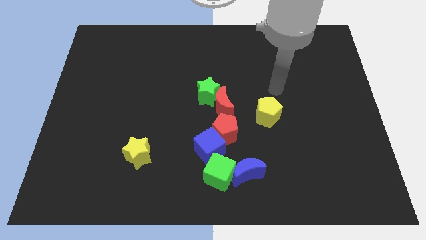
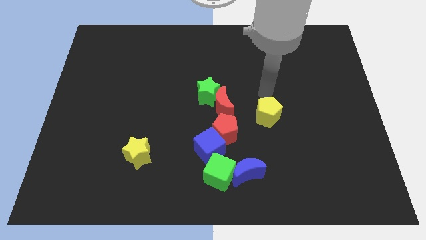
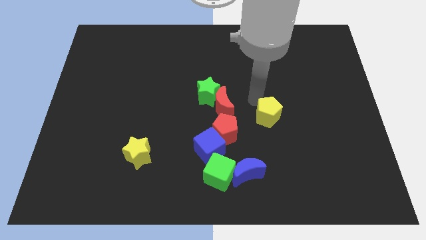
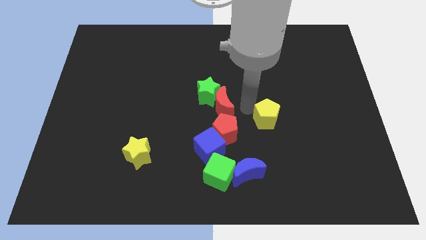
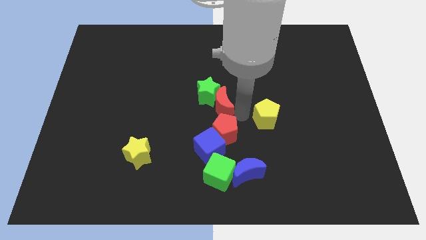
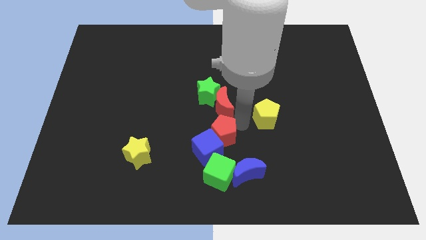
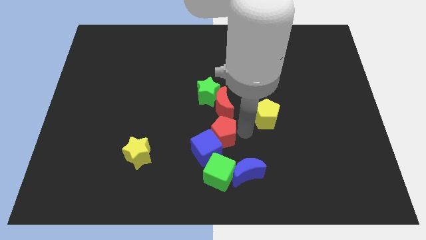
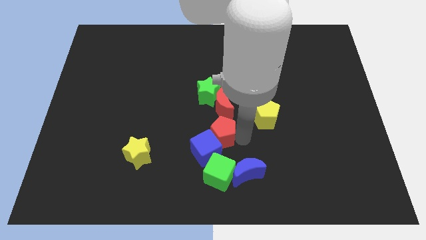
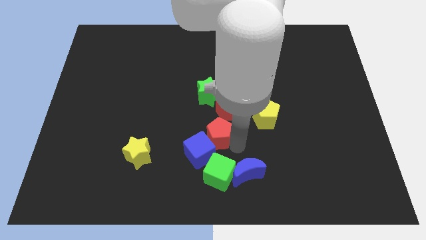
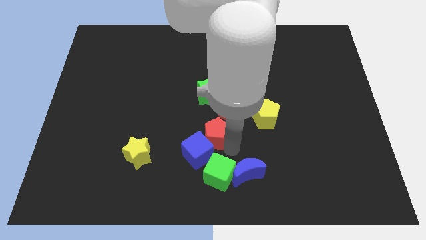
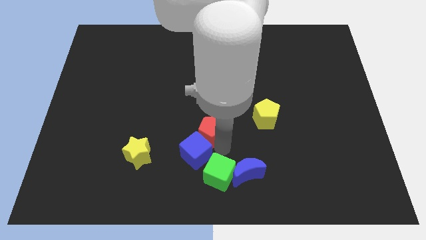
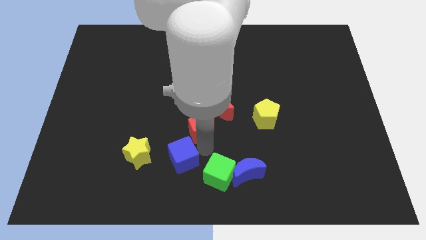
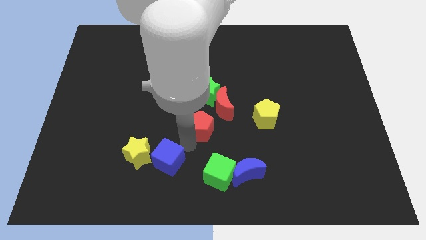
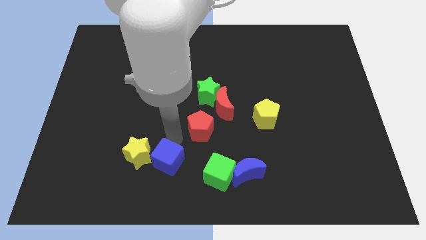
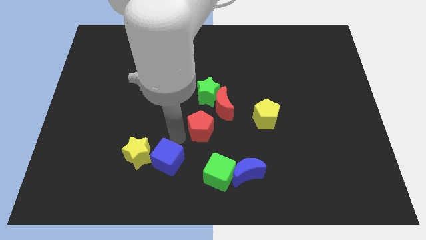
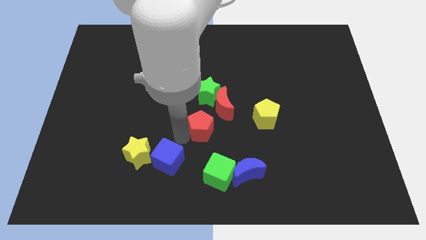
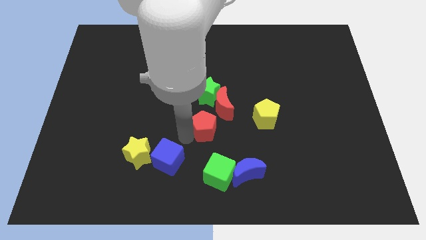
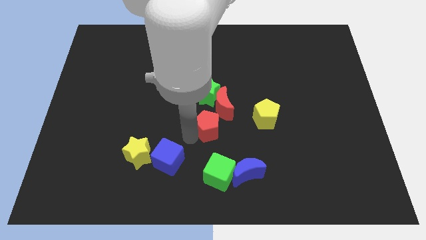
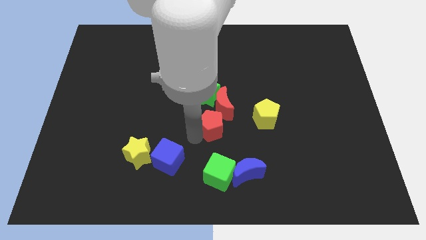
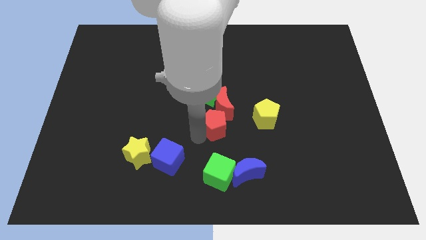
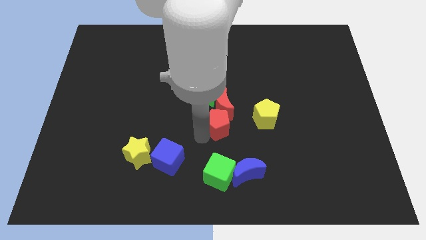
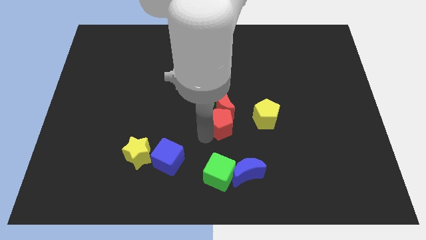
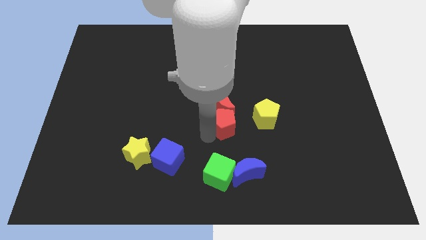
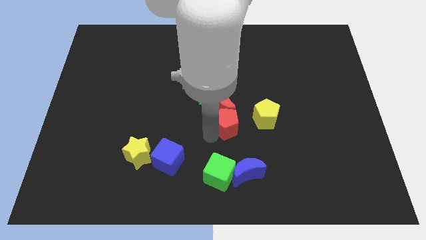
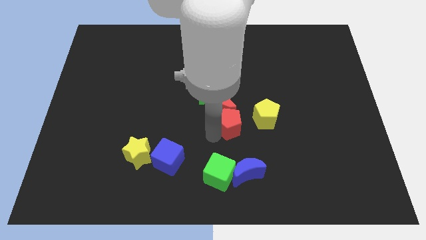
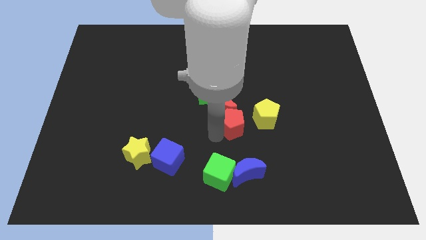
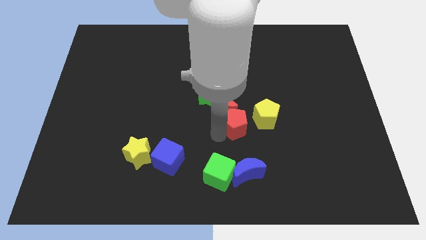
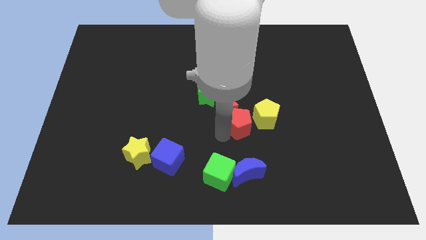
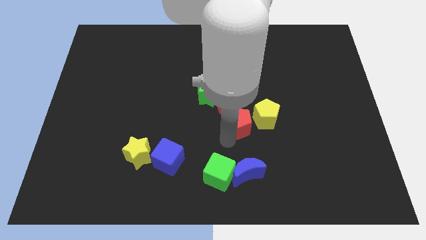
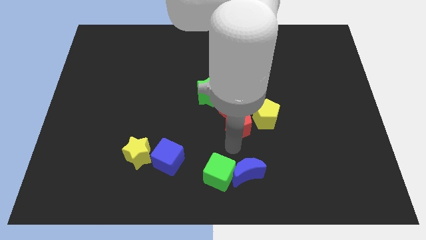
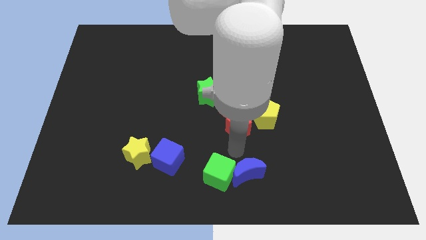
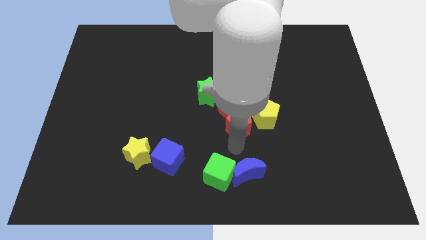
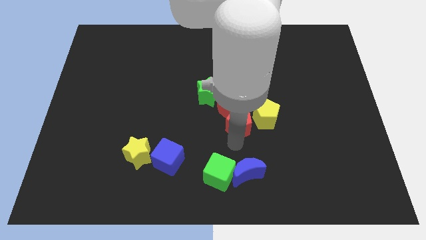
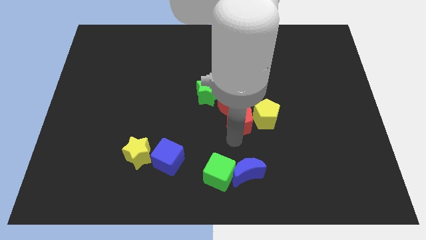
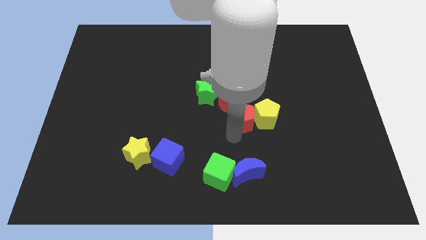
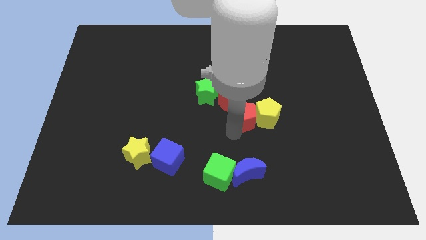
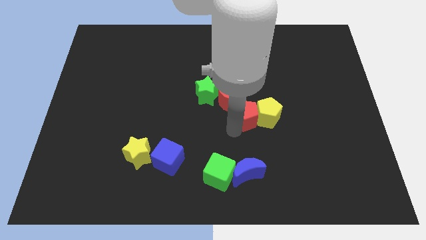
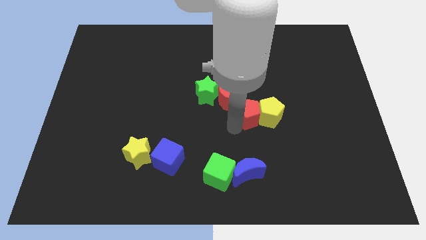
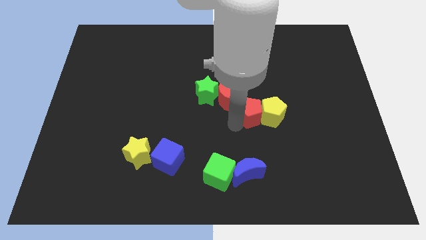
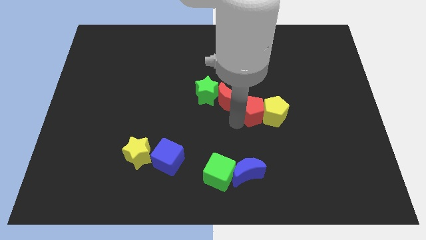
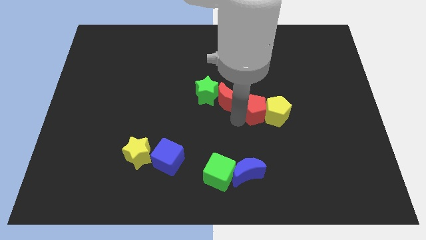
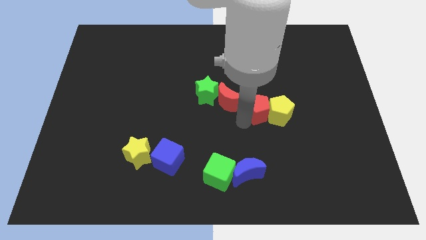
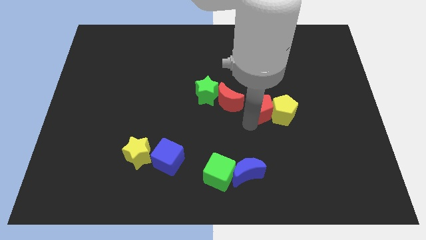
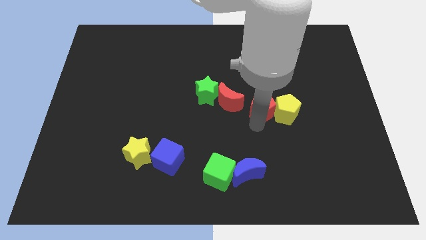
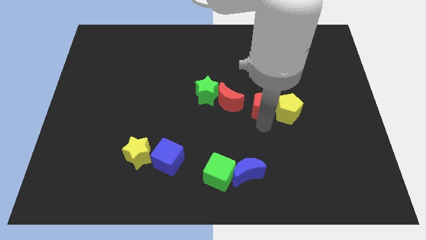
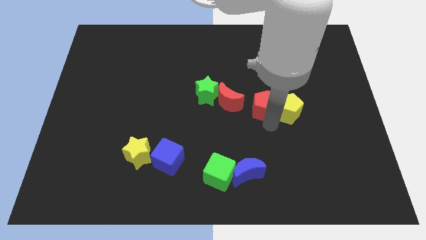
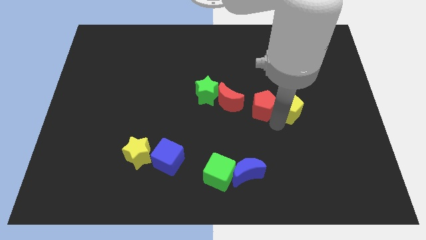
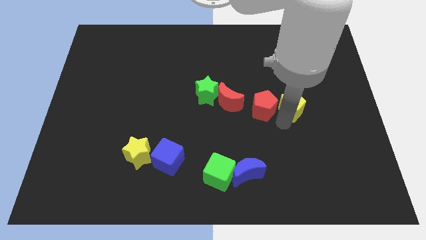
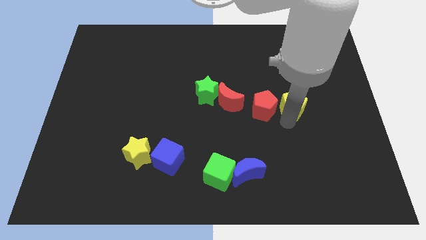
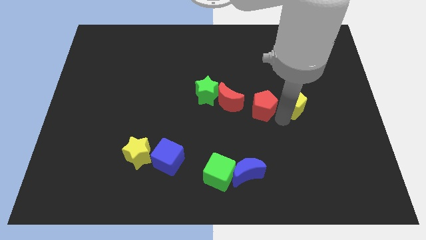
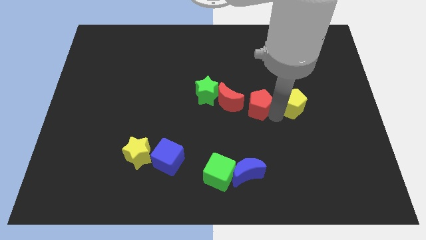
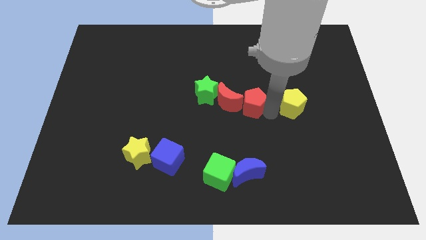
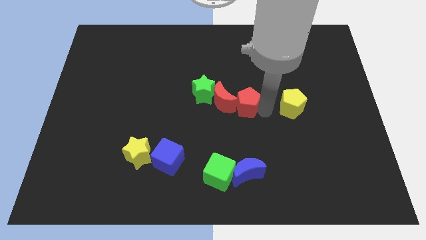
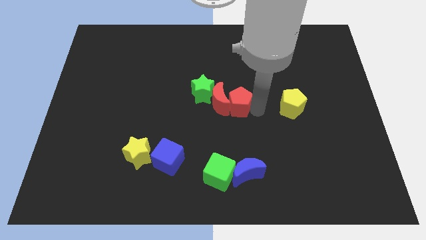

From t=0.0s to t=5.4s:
move the red pentagon upwards a bit

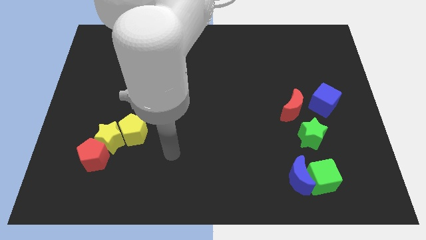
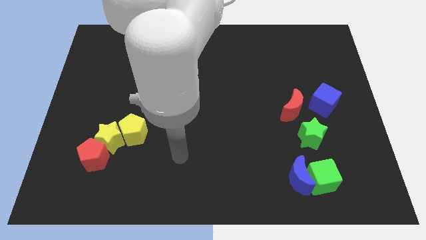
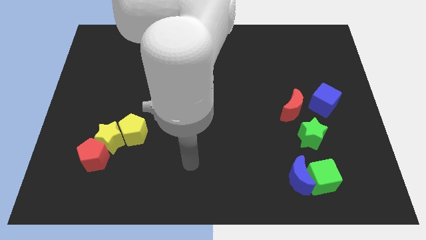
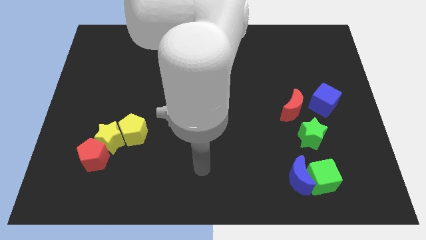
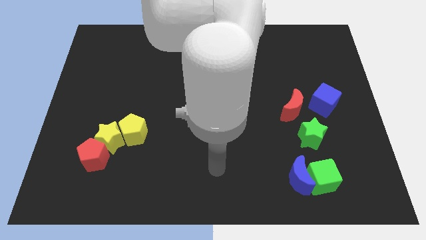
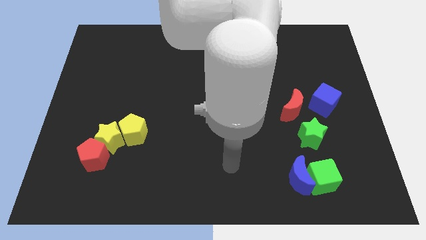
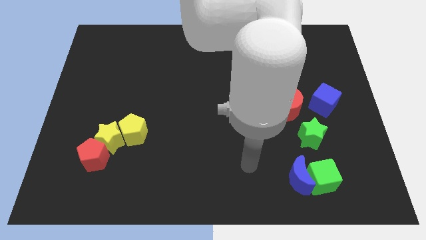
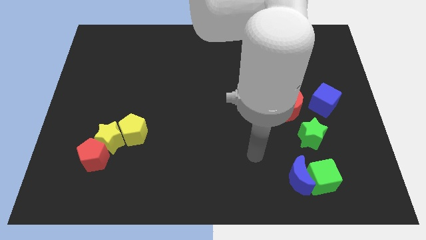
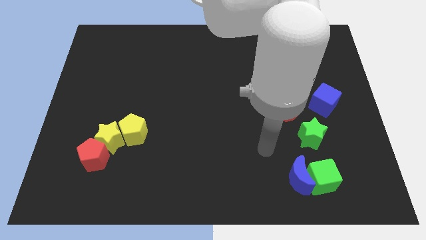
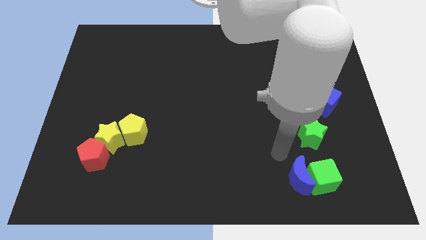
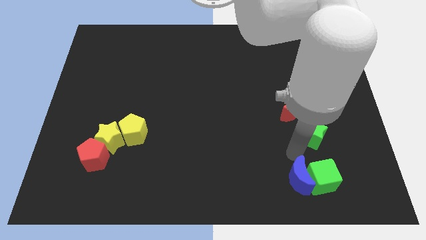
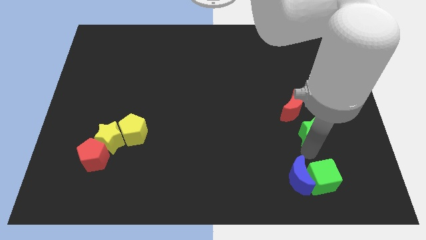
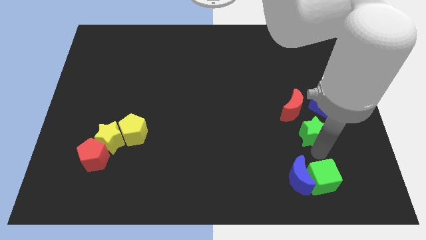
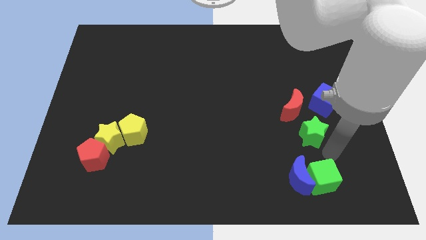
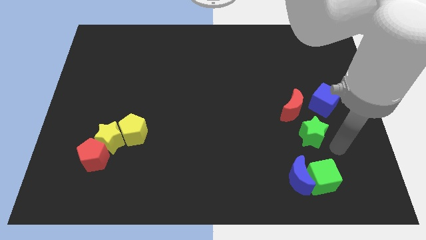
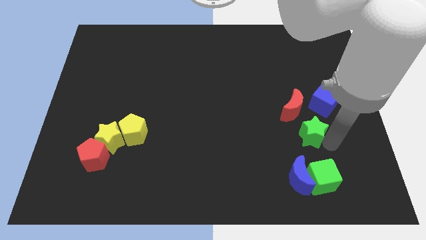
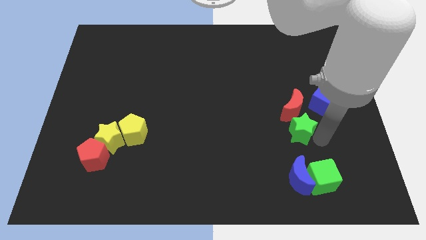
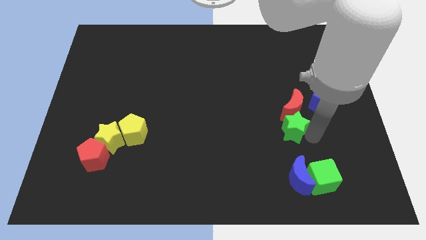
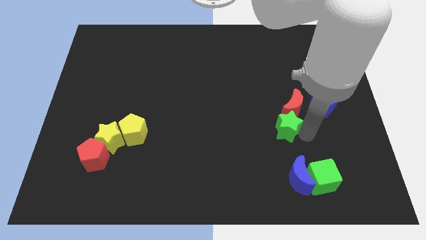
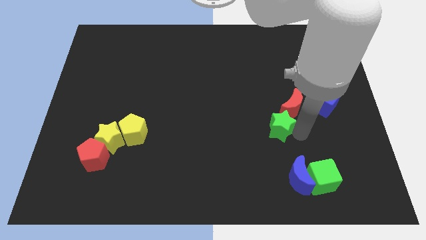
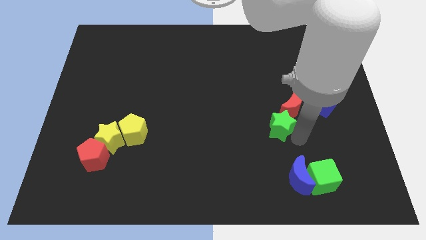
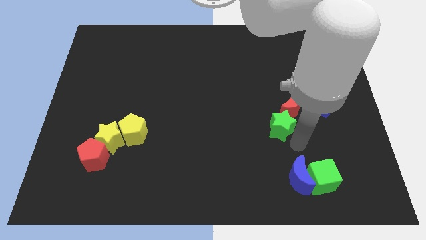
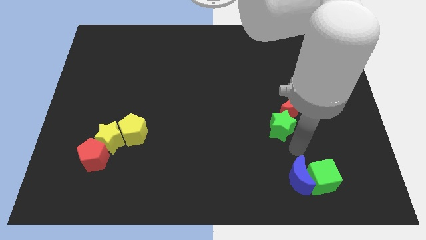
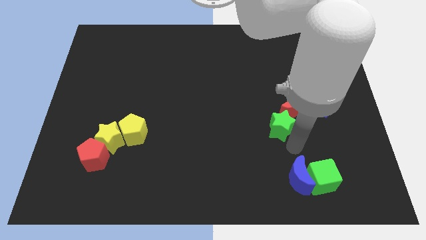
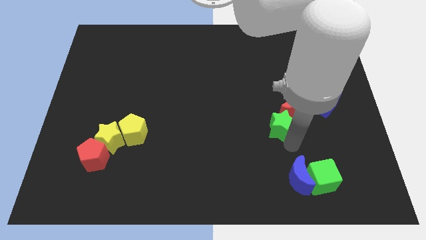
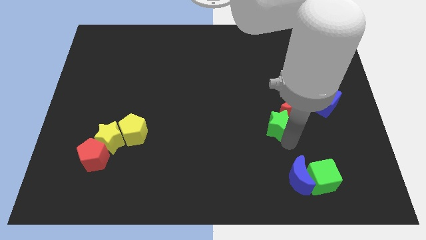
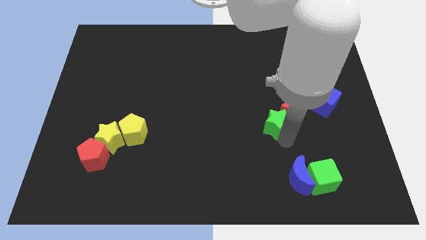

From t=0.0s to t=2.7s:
slightly push the green star upwards and then to the left
